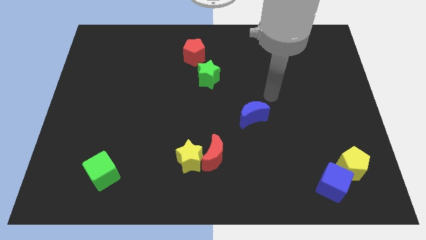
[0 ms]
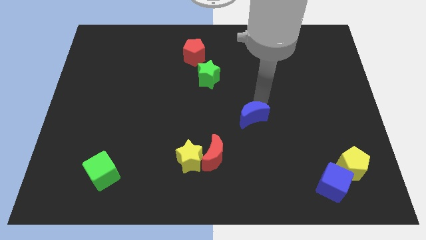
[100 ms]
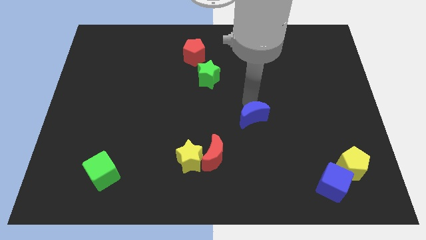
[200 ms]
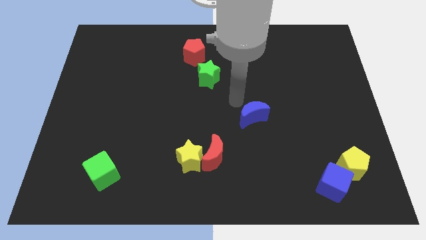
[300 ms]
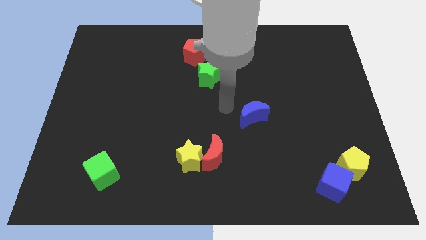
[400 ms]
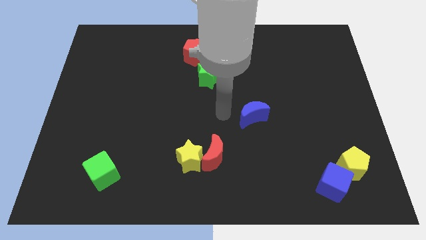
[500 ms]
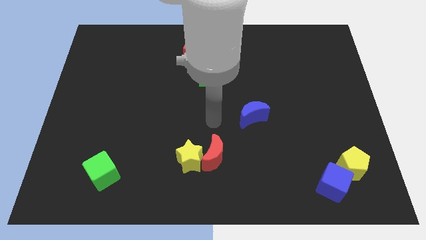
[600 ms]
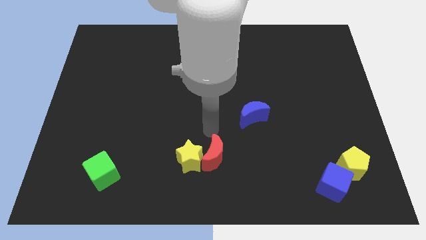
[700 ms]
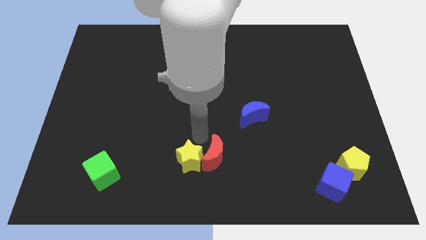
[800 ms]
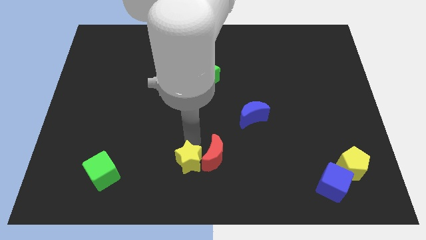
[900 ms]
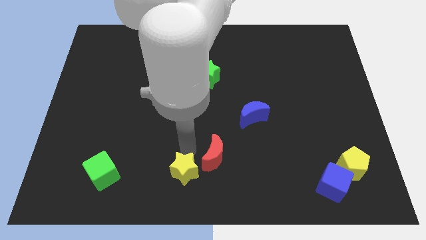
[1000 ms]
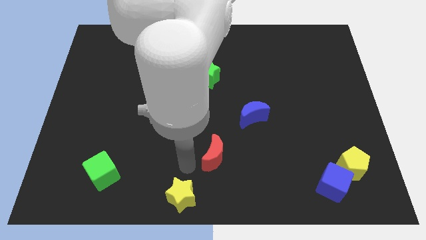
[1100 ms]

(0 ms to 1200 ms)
separate the red moon from the yellow star

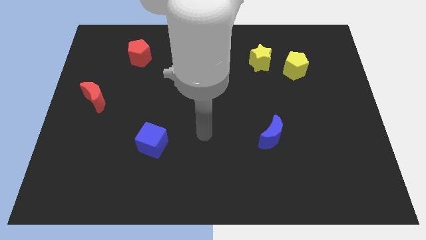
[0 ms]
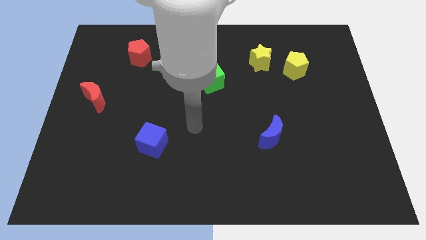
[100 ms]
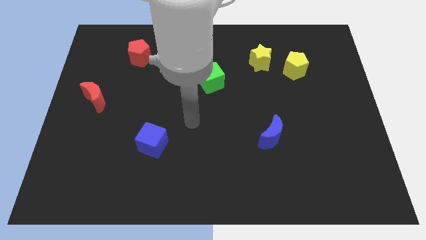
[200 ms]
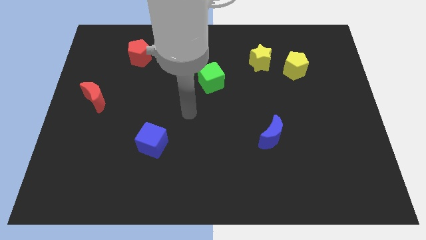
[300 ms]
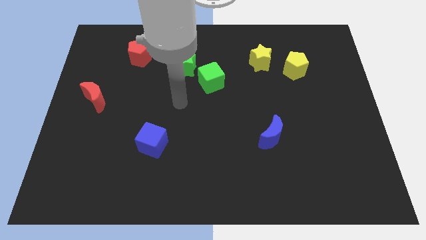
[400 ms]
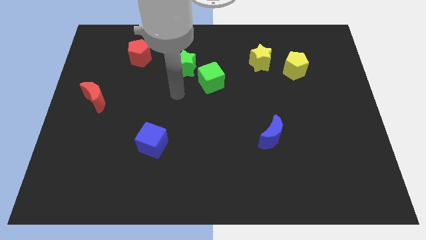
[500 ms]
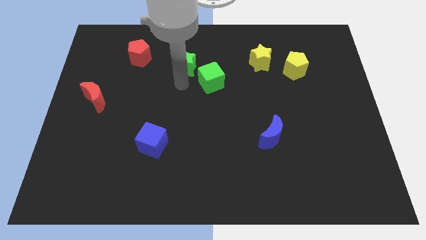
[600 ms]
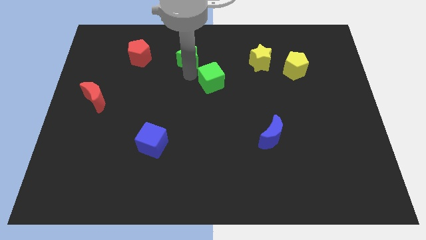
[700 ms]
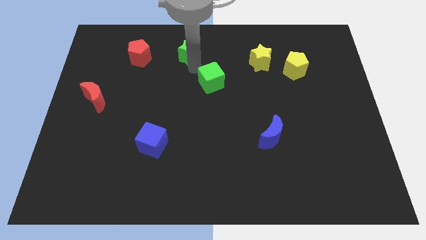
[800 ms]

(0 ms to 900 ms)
pull the green cube apart from the green star

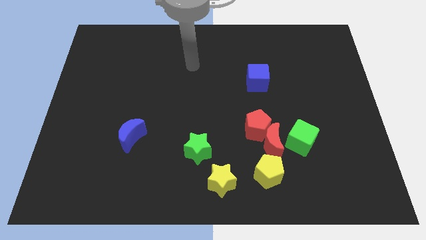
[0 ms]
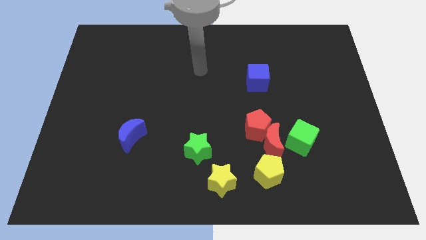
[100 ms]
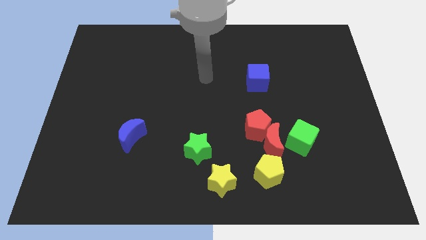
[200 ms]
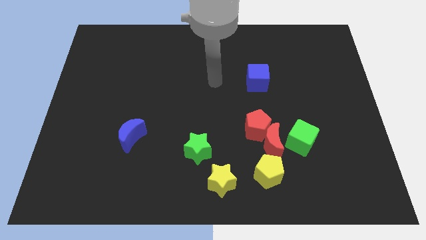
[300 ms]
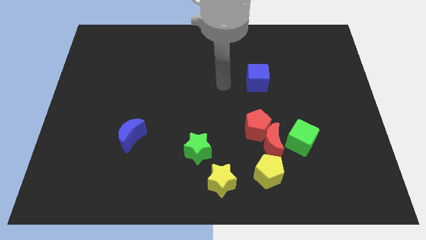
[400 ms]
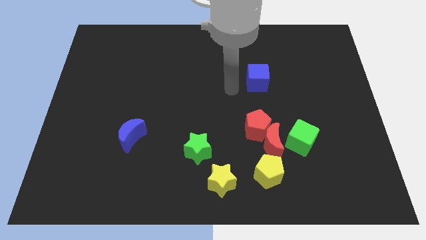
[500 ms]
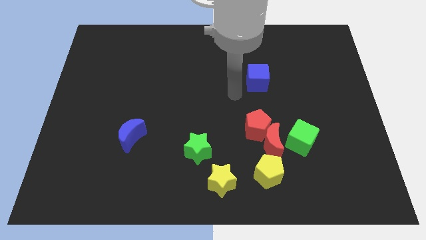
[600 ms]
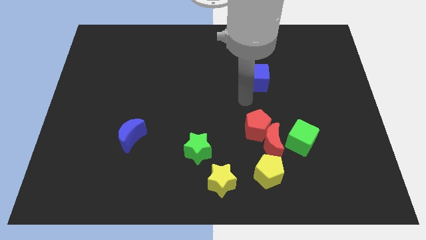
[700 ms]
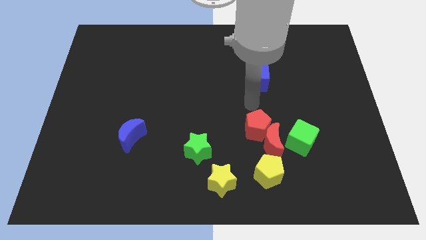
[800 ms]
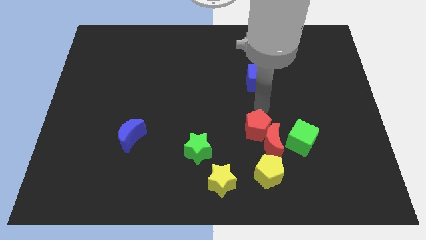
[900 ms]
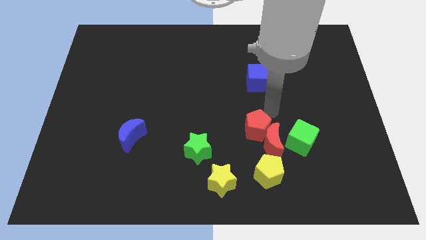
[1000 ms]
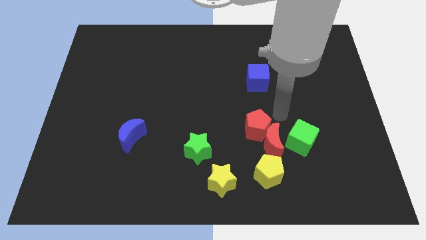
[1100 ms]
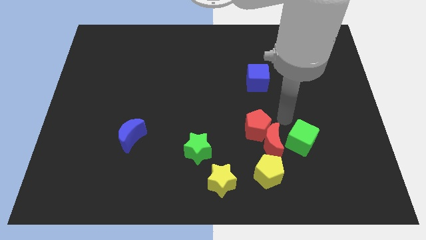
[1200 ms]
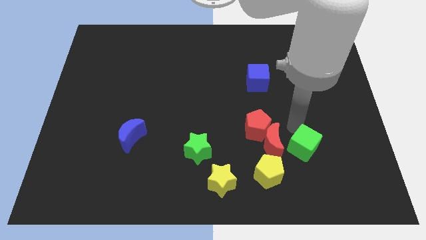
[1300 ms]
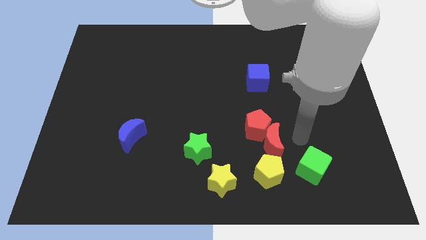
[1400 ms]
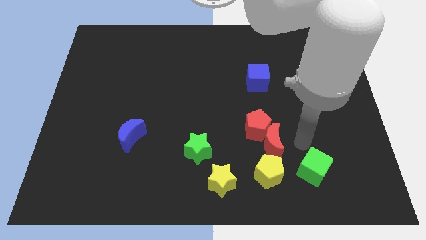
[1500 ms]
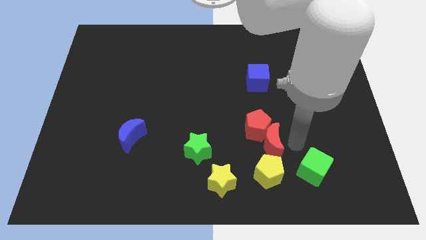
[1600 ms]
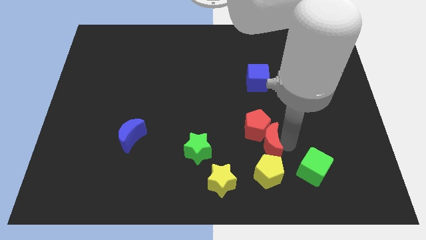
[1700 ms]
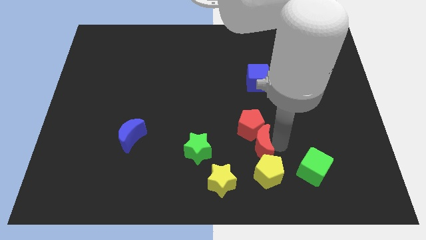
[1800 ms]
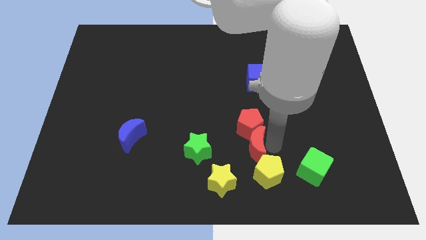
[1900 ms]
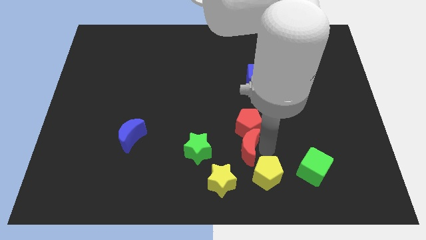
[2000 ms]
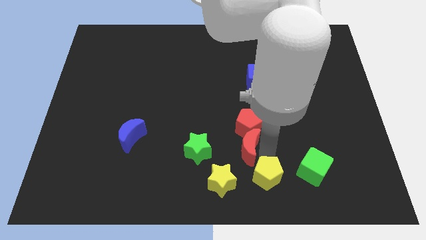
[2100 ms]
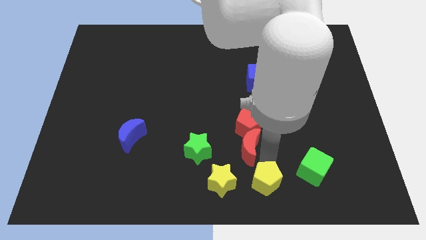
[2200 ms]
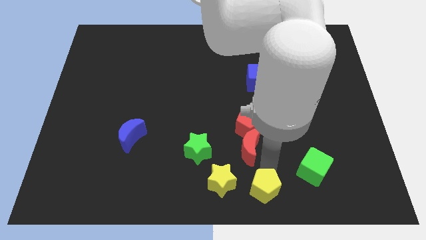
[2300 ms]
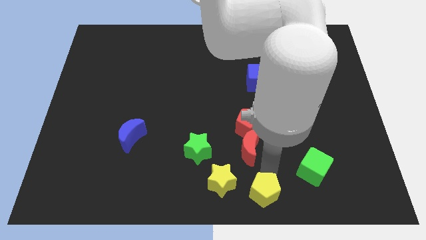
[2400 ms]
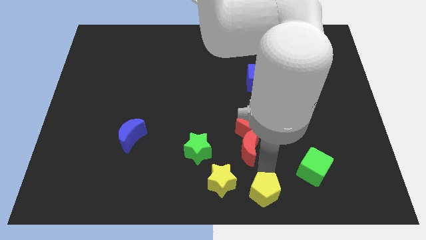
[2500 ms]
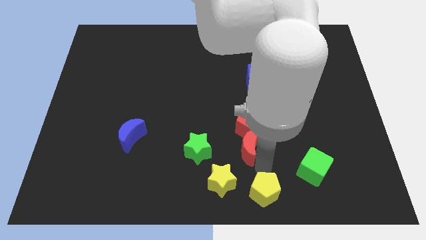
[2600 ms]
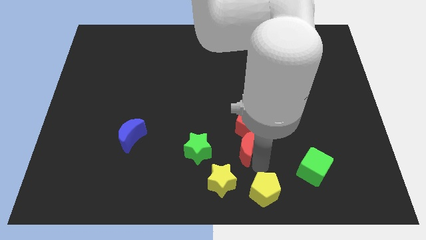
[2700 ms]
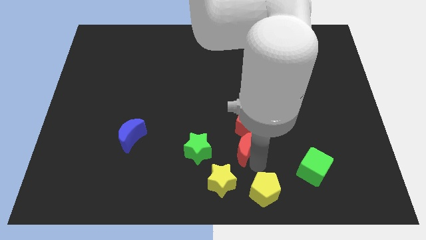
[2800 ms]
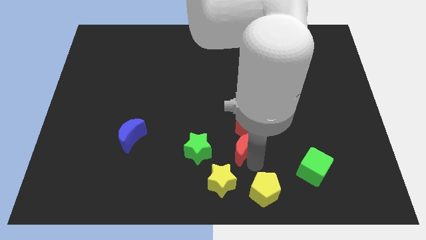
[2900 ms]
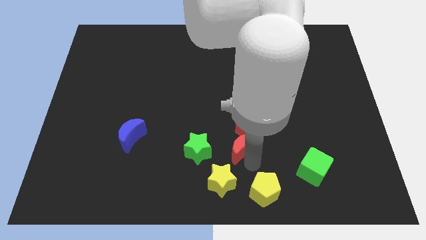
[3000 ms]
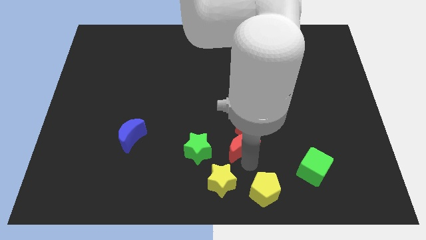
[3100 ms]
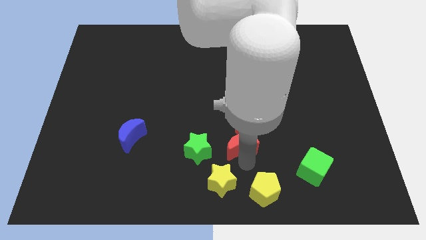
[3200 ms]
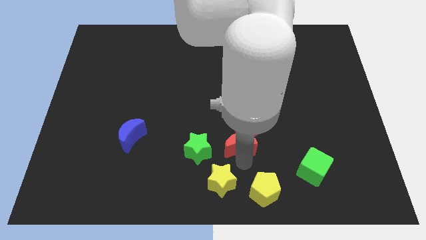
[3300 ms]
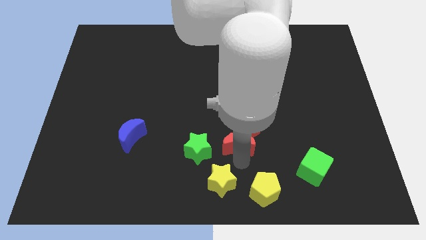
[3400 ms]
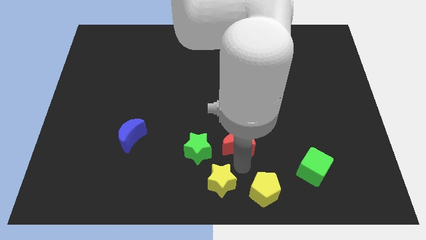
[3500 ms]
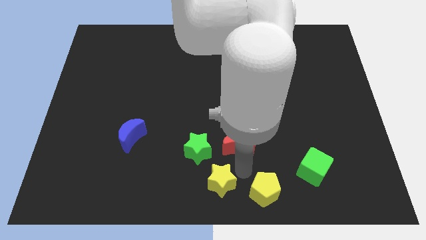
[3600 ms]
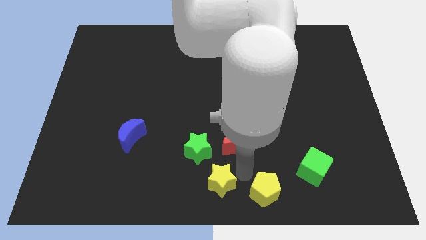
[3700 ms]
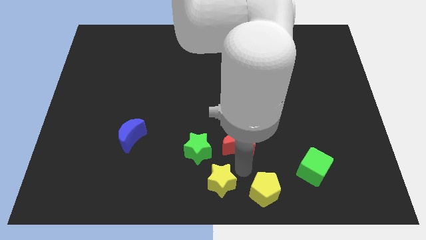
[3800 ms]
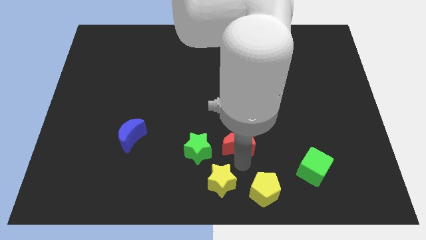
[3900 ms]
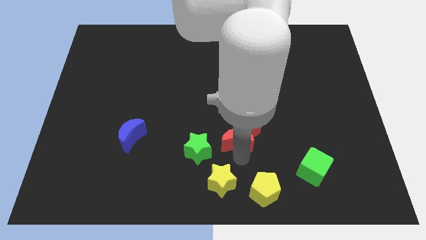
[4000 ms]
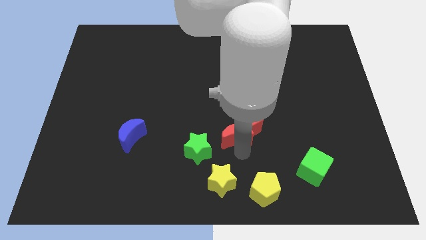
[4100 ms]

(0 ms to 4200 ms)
move the red moon away from the clump

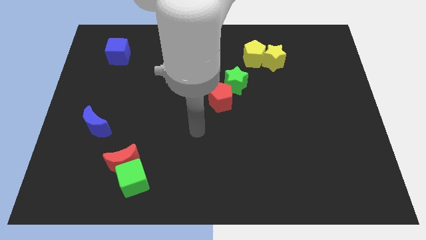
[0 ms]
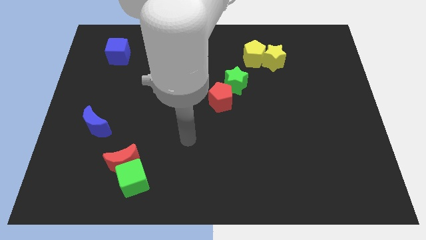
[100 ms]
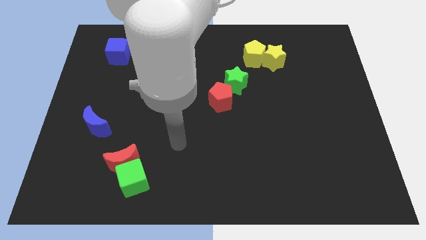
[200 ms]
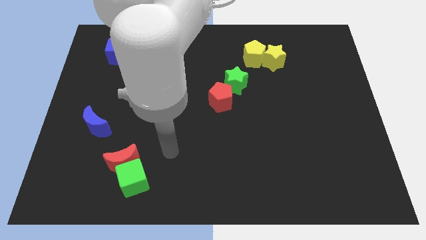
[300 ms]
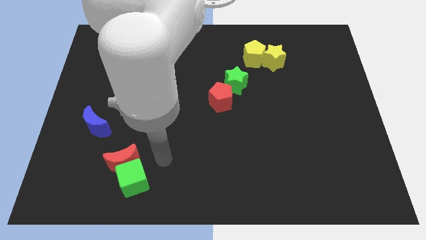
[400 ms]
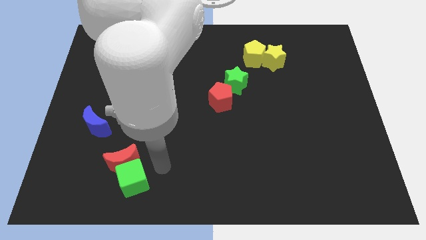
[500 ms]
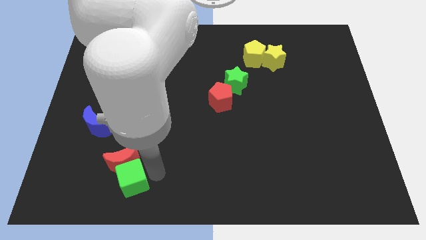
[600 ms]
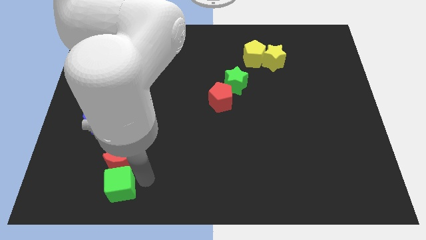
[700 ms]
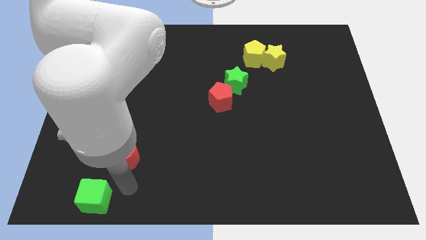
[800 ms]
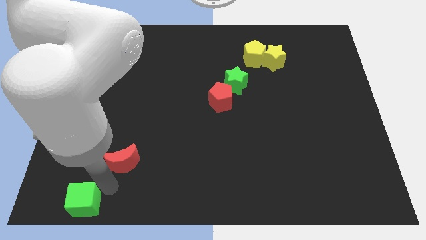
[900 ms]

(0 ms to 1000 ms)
pull the red moon apart from the green cube

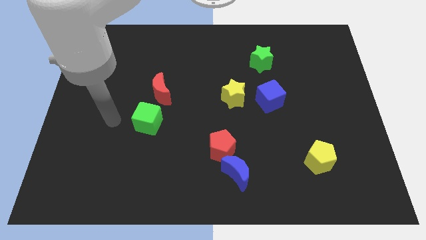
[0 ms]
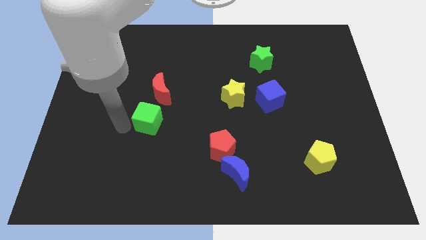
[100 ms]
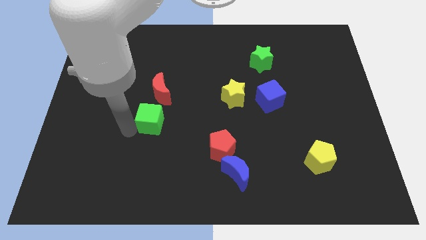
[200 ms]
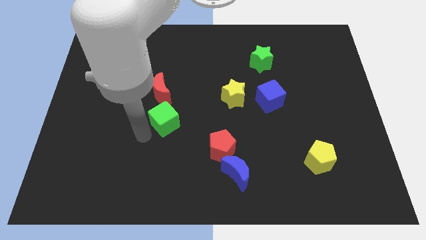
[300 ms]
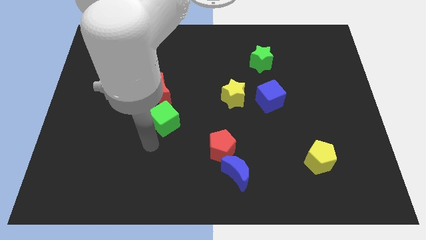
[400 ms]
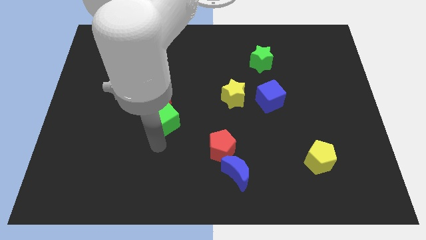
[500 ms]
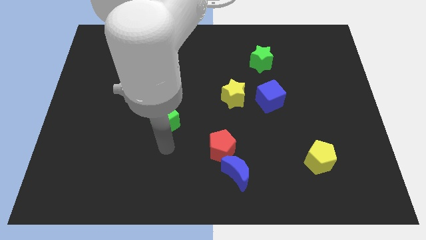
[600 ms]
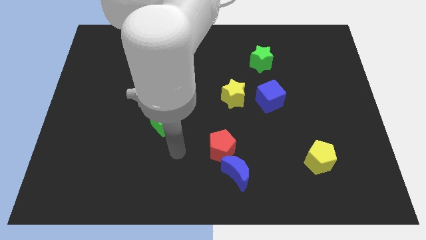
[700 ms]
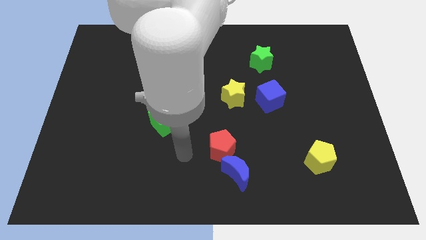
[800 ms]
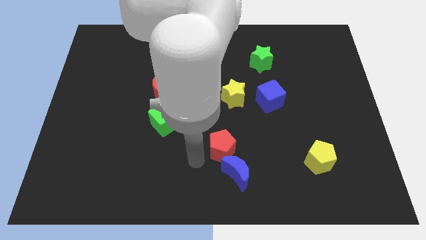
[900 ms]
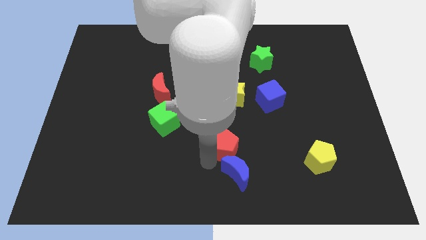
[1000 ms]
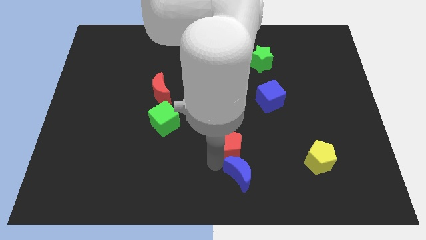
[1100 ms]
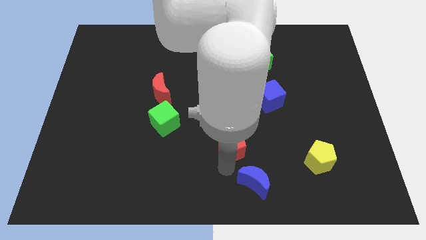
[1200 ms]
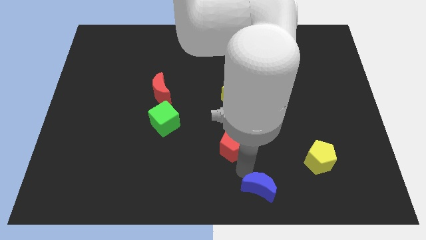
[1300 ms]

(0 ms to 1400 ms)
separate the red pentagon from the blue moon

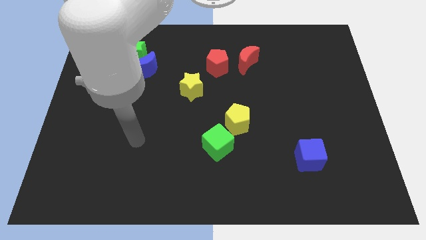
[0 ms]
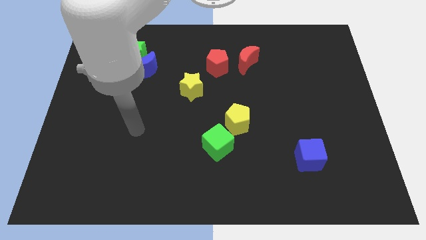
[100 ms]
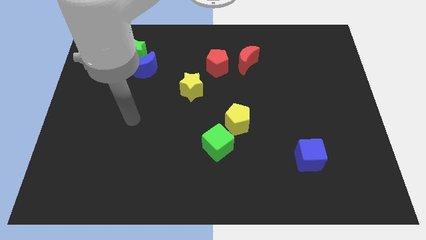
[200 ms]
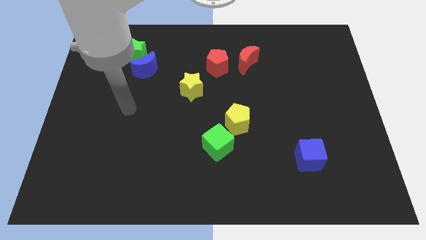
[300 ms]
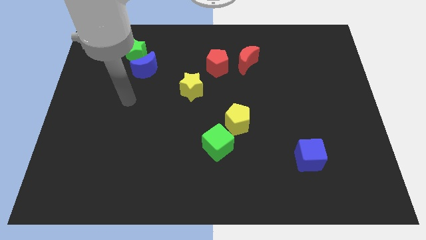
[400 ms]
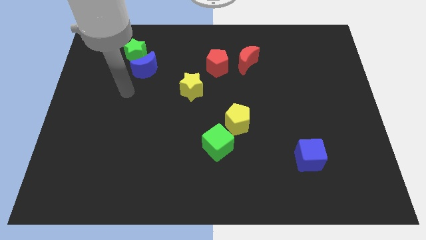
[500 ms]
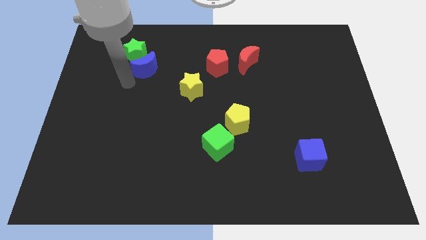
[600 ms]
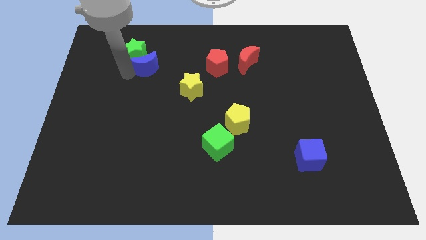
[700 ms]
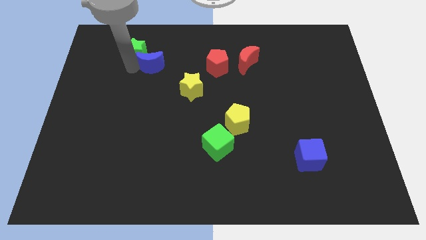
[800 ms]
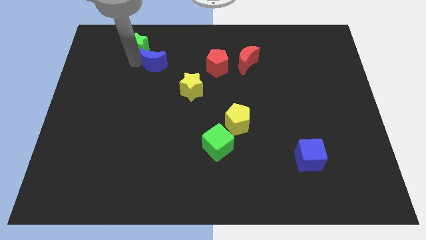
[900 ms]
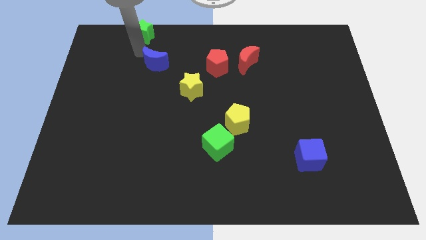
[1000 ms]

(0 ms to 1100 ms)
move the blue moon away from the green star
